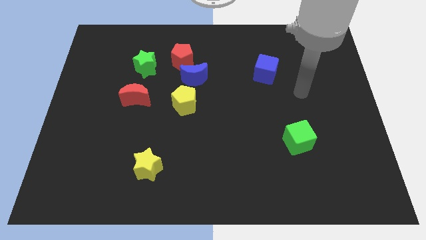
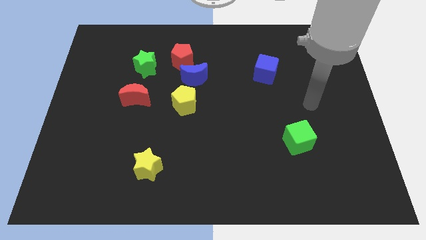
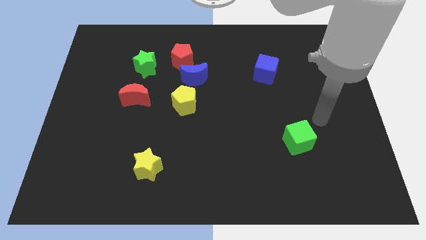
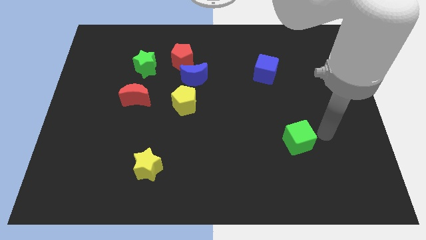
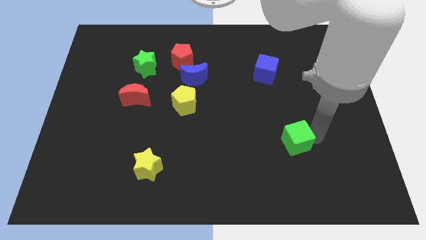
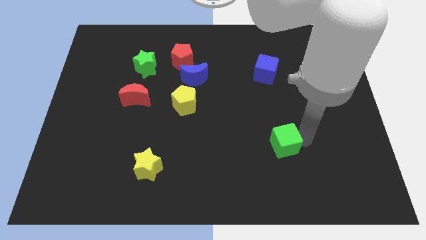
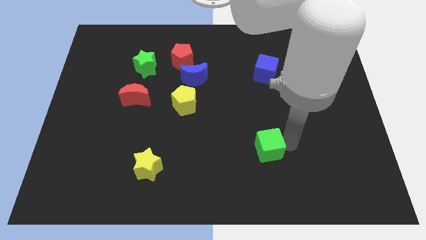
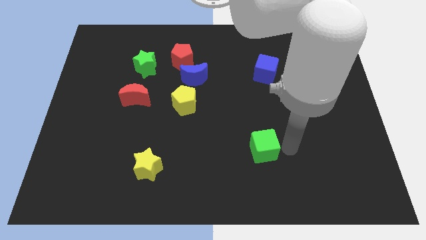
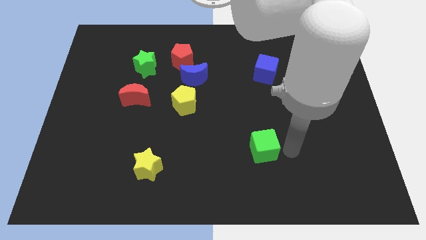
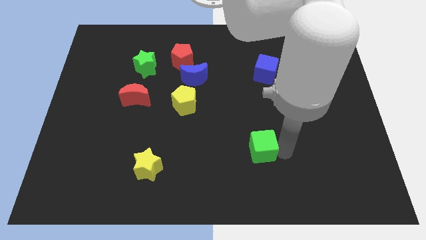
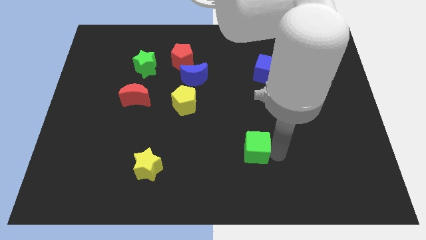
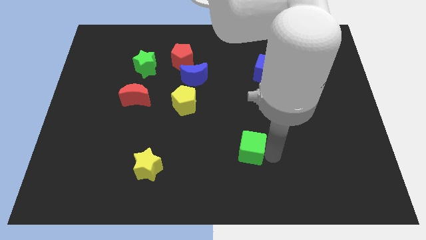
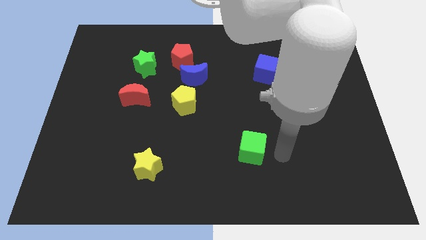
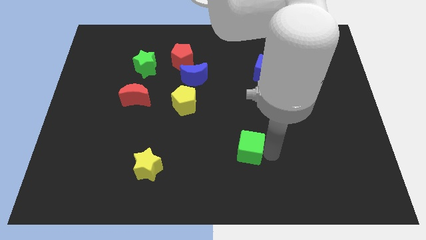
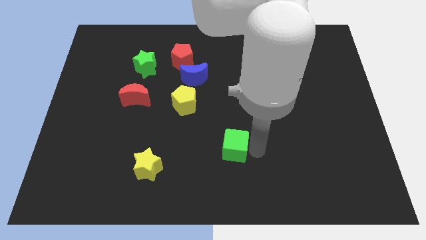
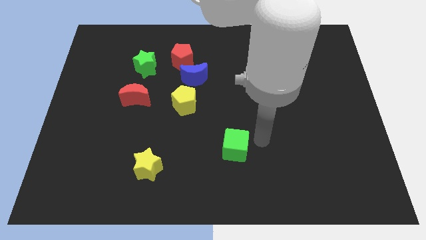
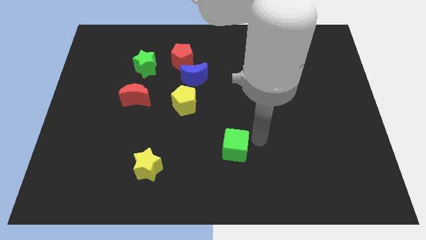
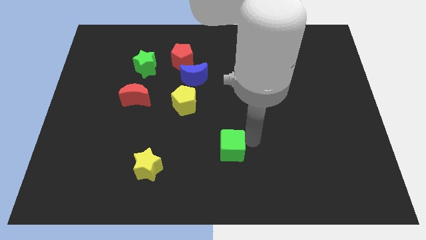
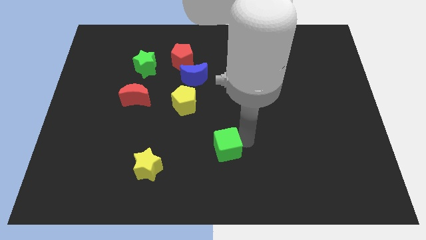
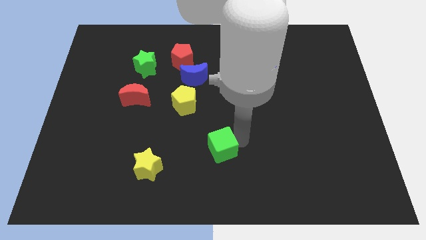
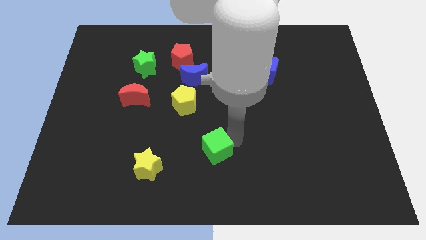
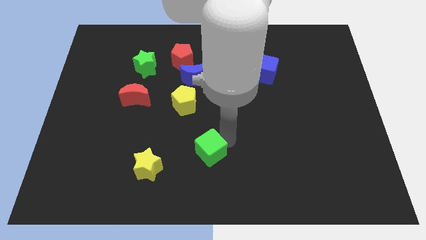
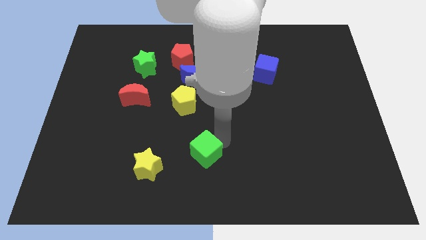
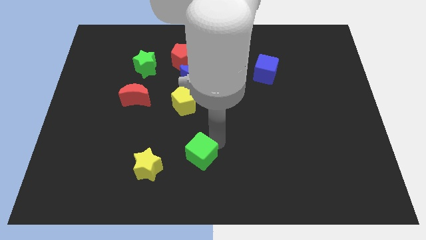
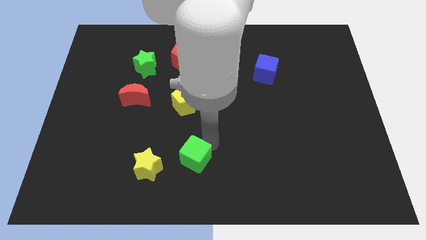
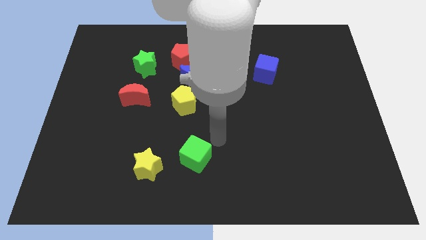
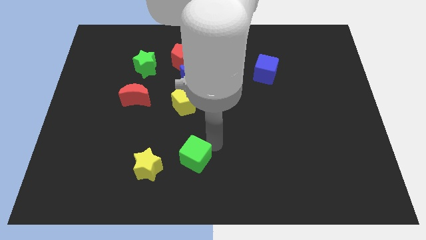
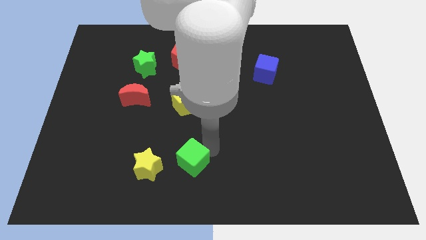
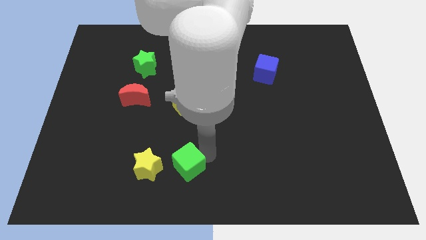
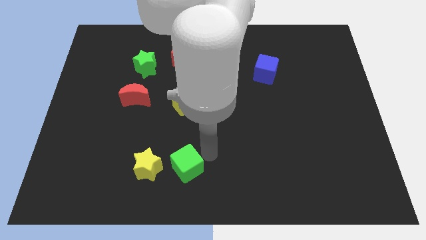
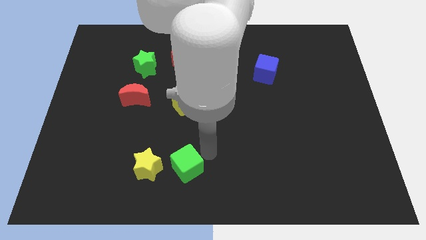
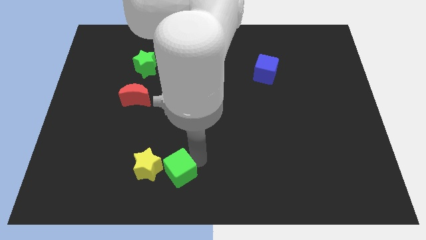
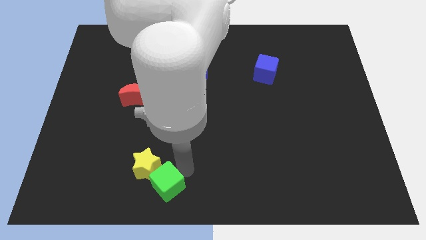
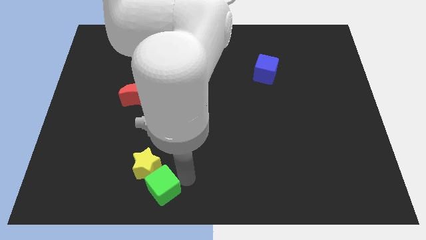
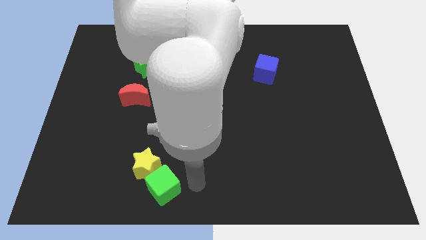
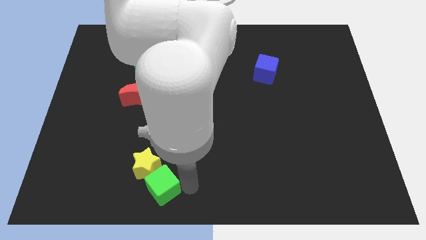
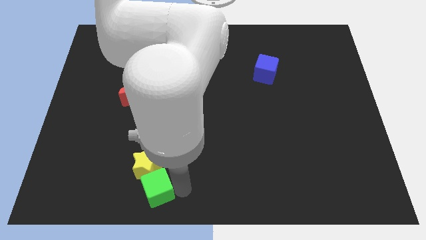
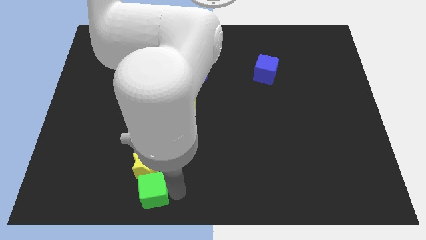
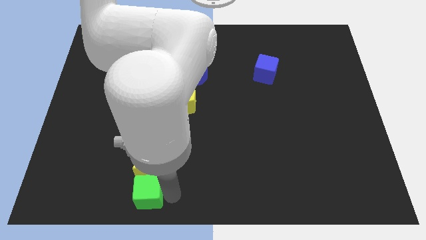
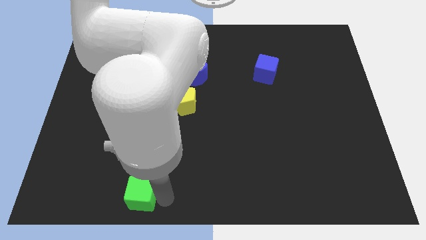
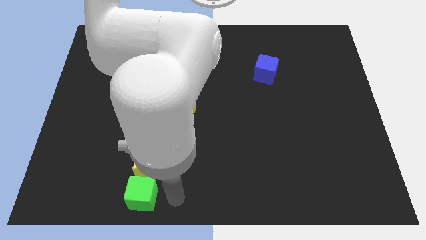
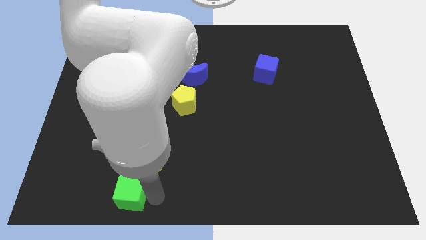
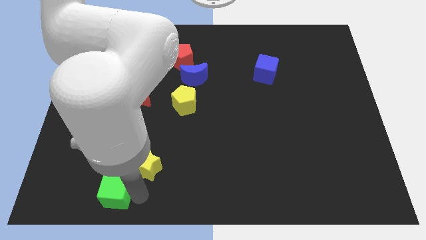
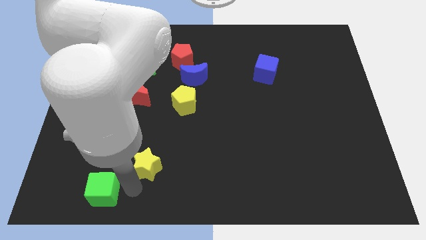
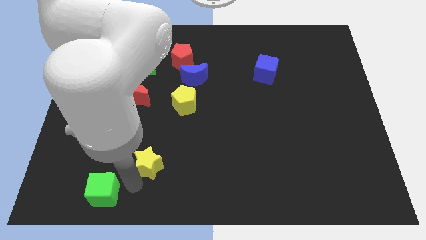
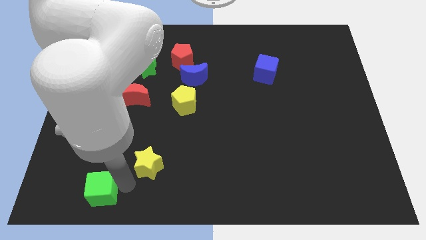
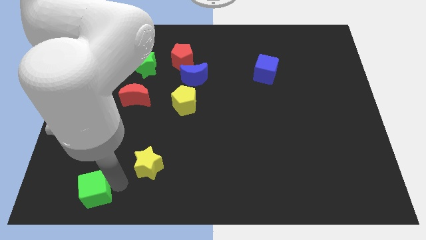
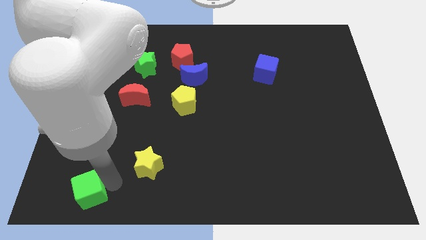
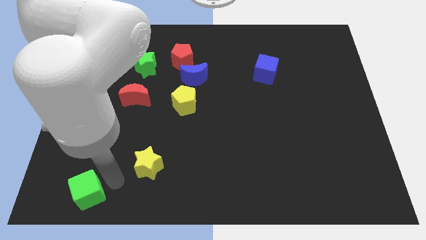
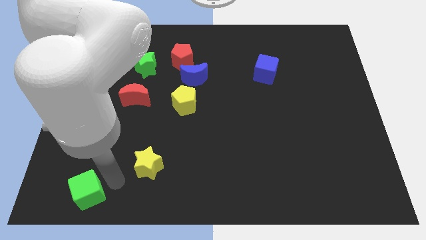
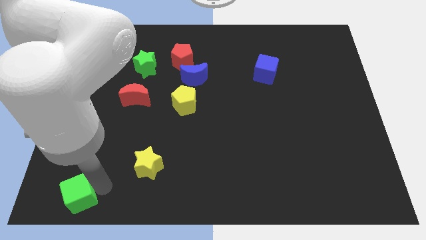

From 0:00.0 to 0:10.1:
slide the green cube to the bottom left

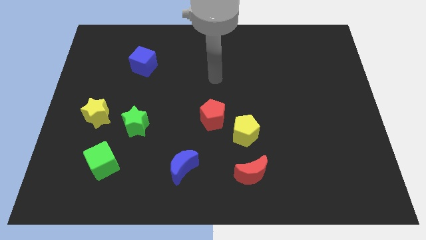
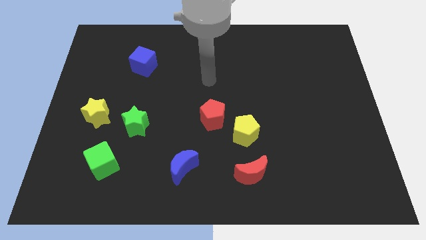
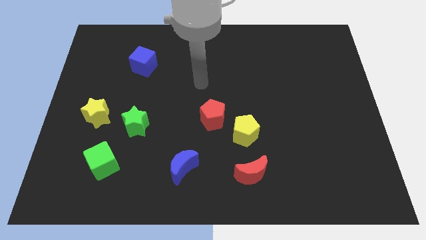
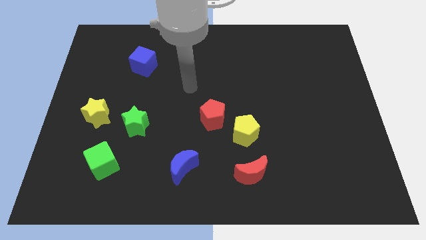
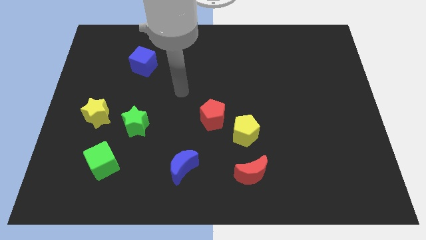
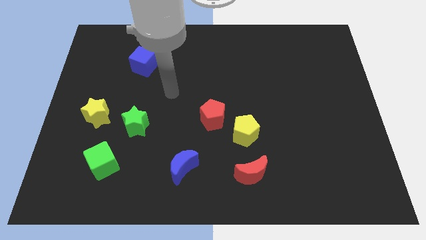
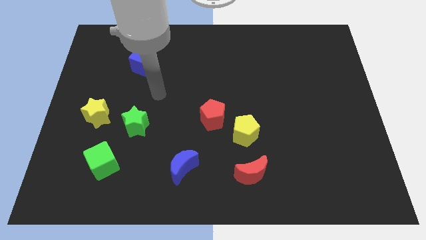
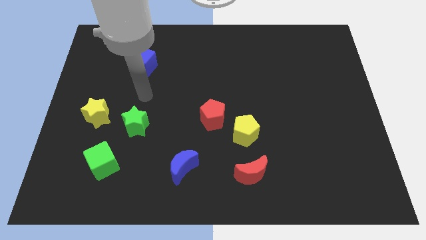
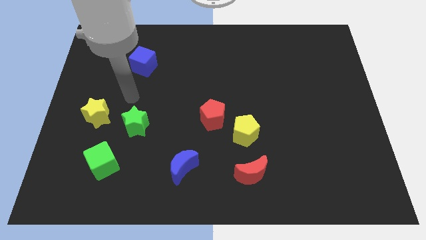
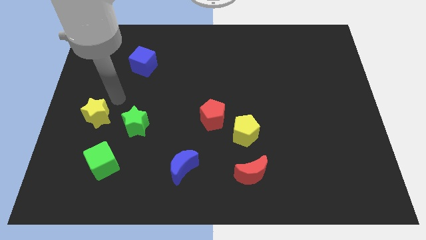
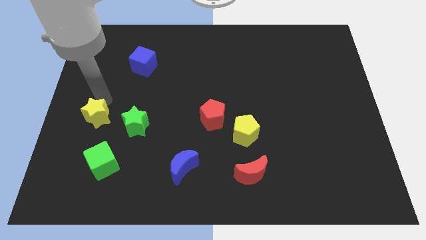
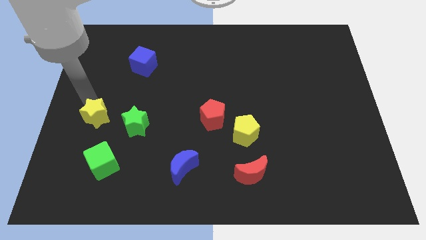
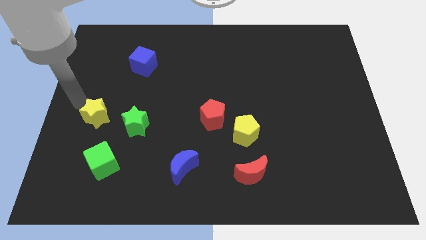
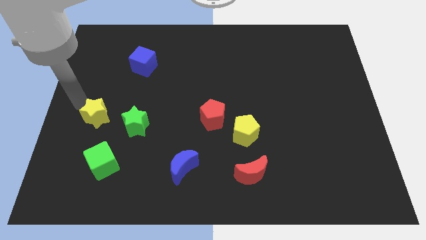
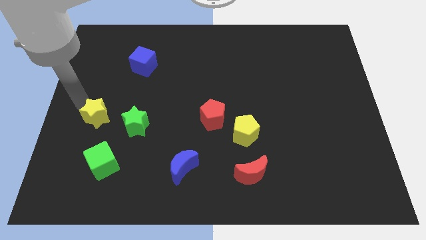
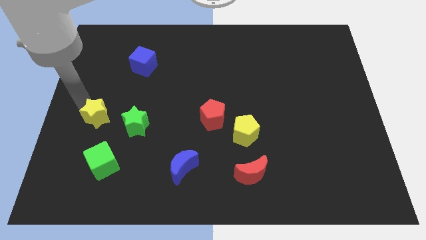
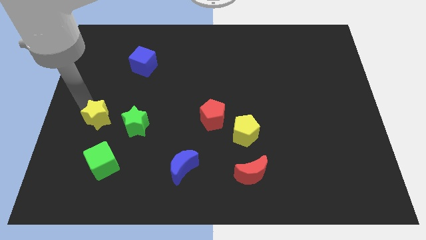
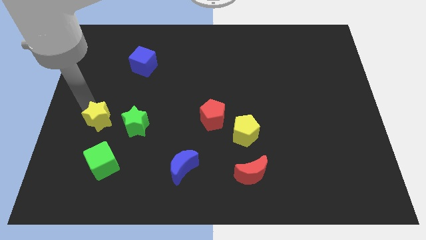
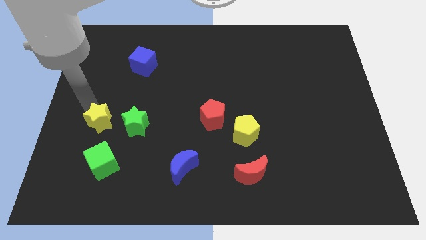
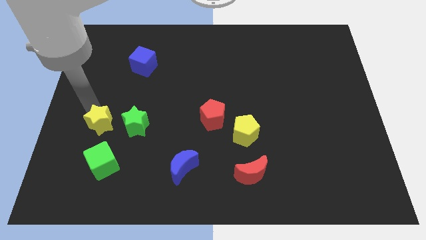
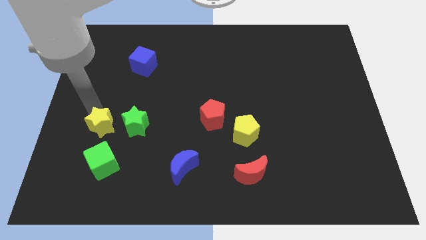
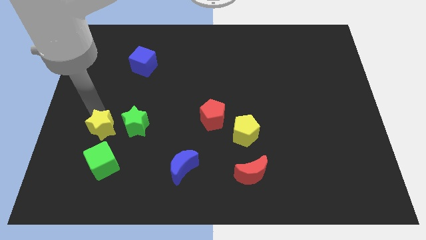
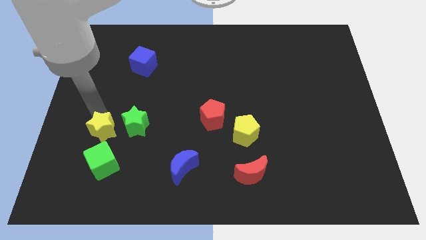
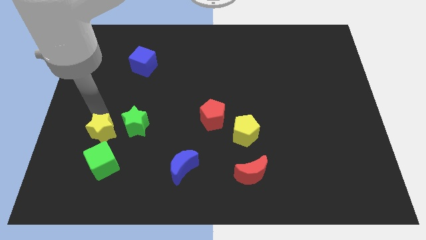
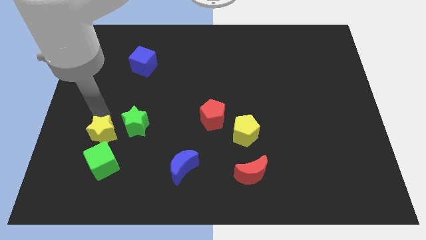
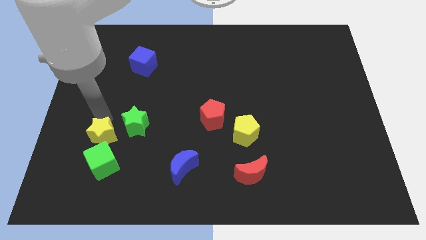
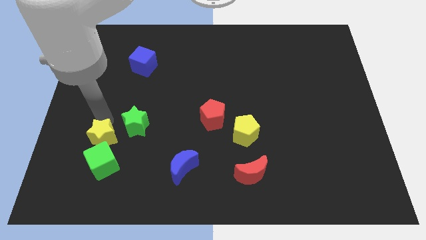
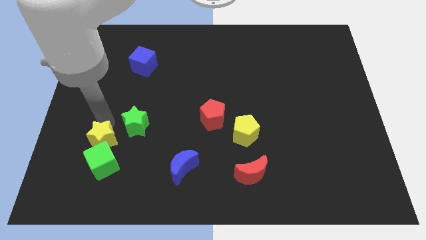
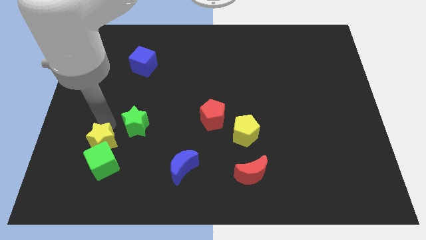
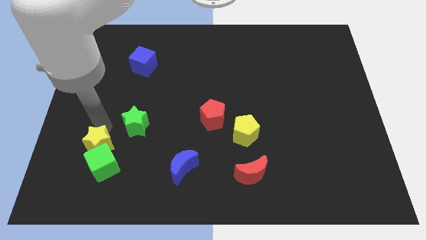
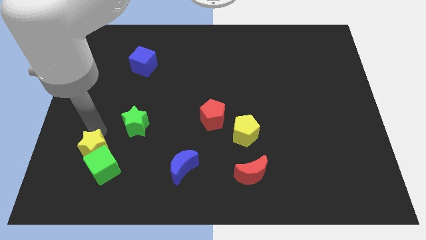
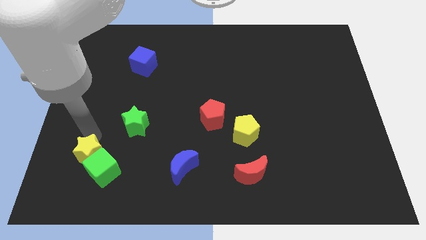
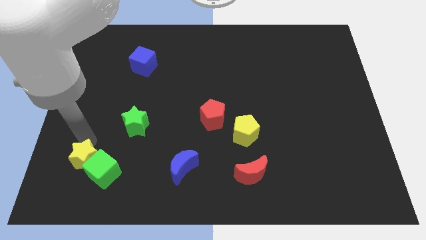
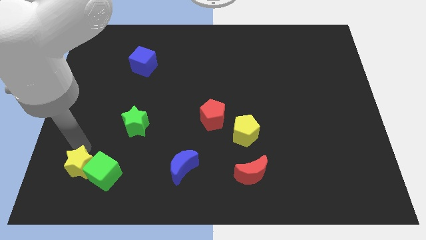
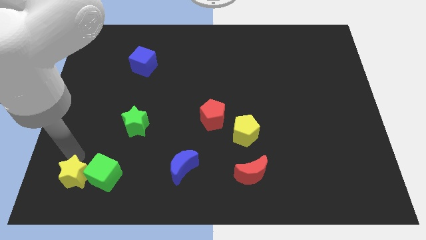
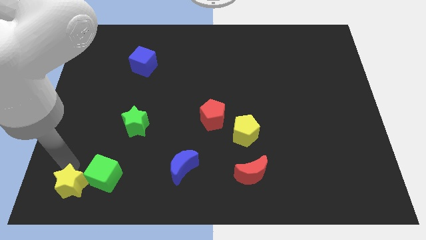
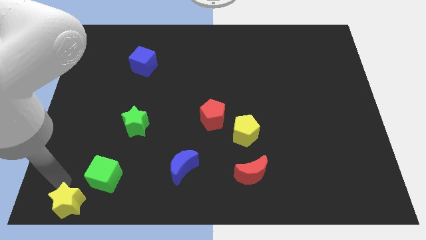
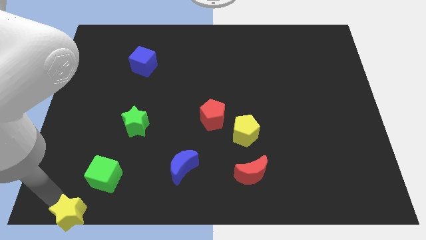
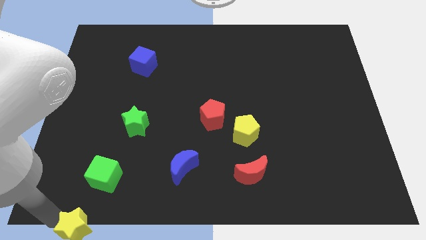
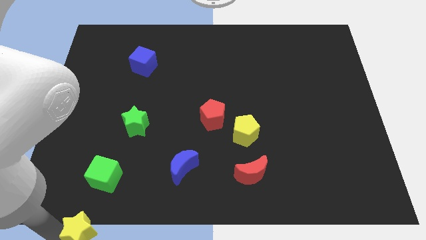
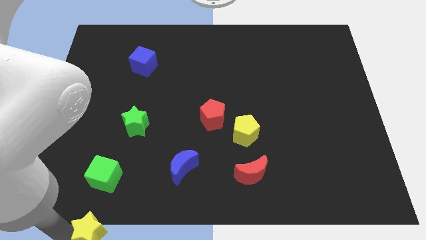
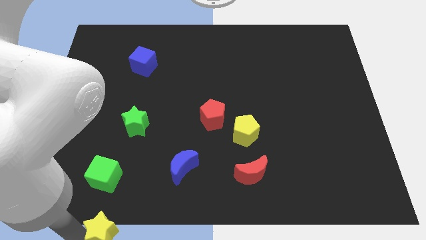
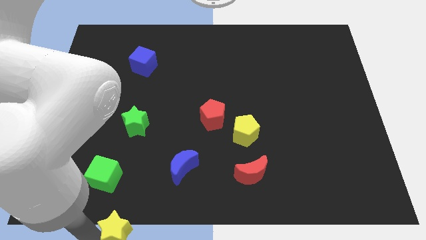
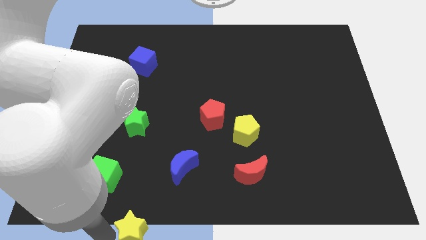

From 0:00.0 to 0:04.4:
slide the yellow star to the bottom side
